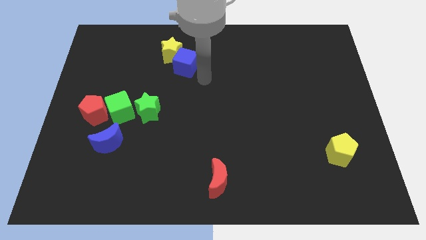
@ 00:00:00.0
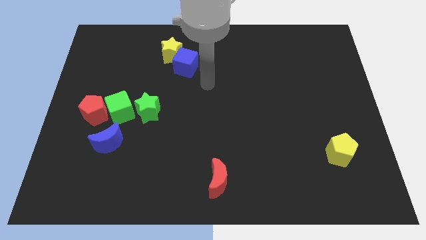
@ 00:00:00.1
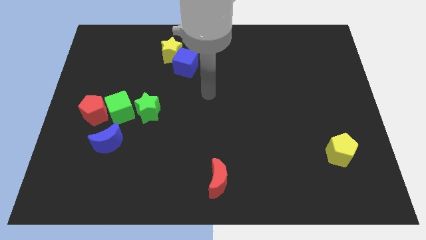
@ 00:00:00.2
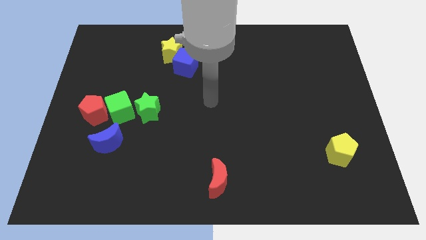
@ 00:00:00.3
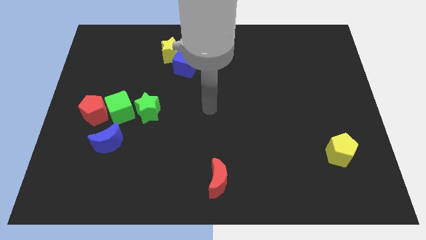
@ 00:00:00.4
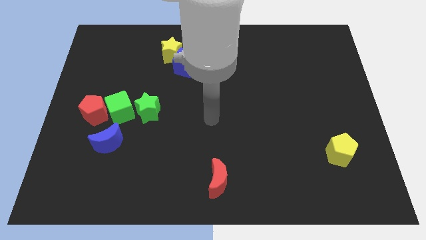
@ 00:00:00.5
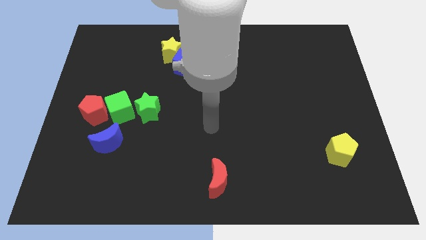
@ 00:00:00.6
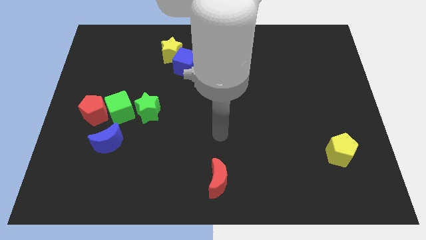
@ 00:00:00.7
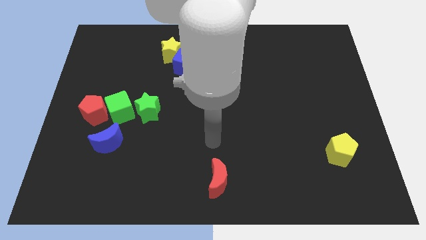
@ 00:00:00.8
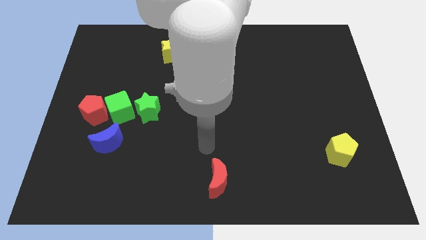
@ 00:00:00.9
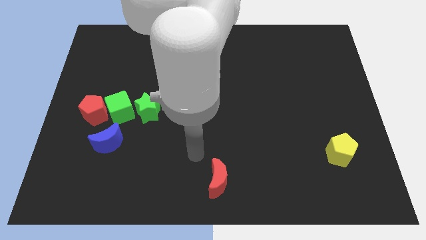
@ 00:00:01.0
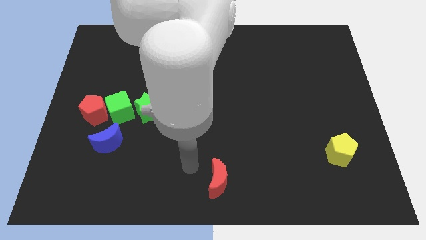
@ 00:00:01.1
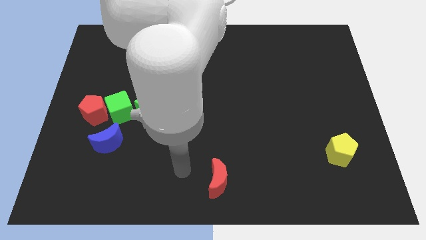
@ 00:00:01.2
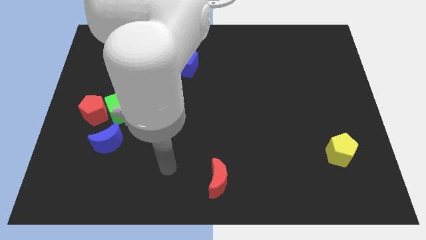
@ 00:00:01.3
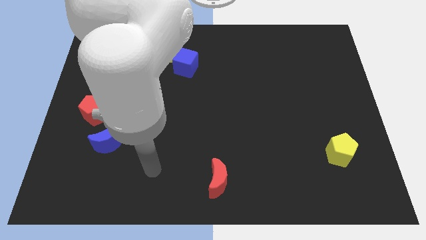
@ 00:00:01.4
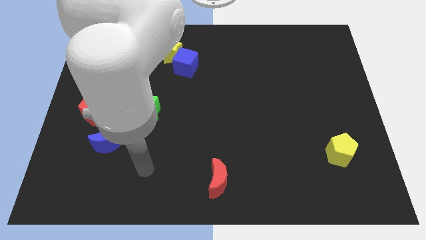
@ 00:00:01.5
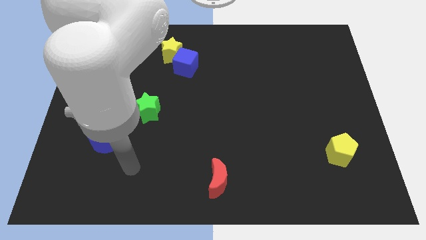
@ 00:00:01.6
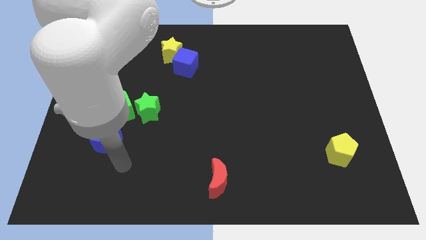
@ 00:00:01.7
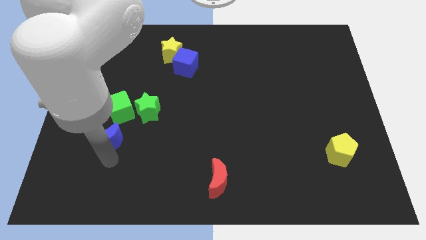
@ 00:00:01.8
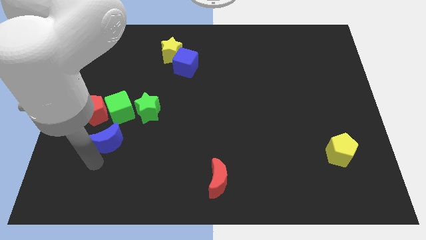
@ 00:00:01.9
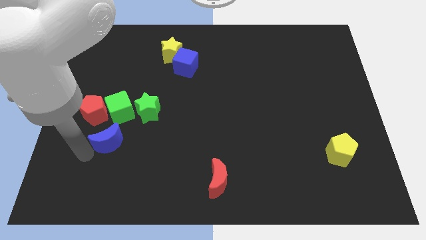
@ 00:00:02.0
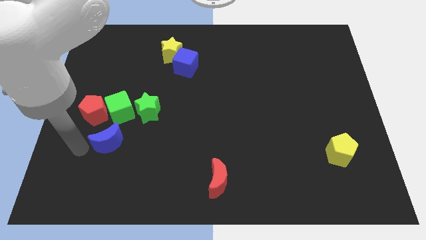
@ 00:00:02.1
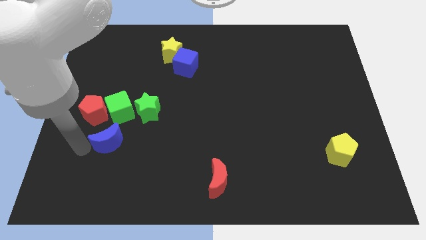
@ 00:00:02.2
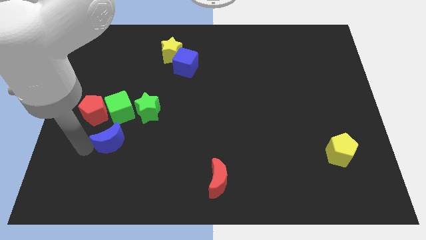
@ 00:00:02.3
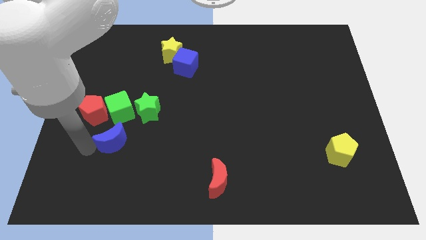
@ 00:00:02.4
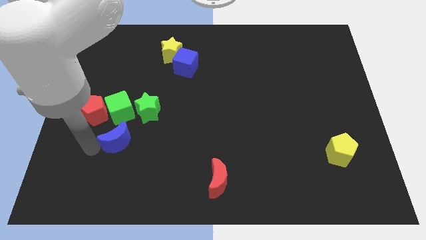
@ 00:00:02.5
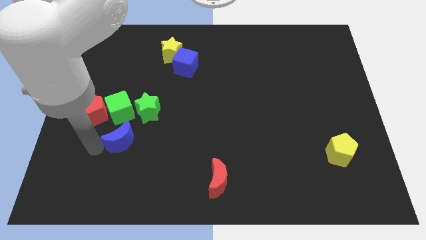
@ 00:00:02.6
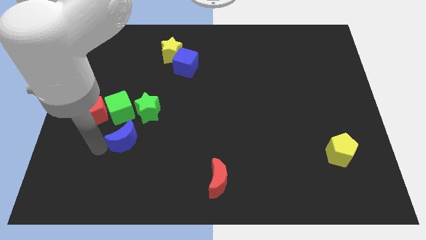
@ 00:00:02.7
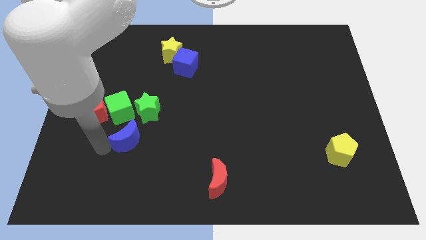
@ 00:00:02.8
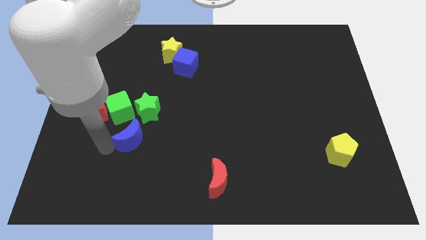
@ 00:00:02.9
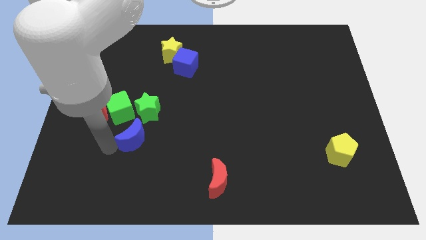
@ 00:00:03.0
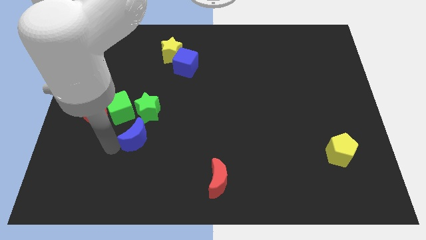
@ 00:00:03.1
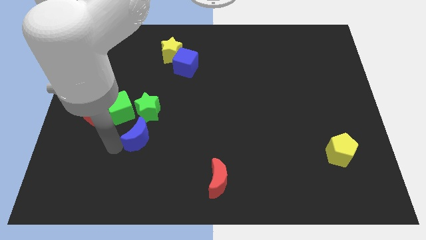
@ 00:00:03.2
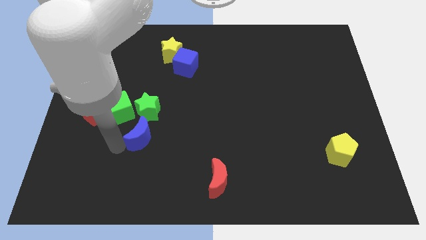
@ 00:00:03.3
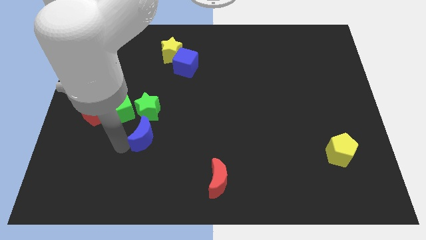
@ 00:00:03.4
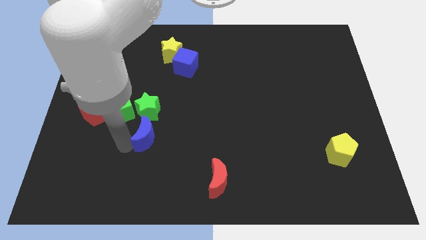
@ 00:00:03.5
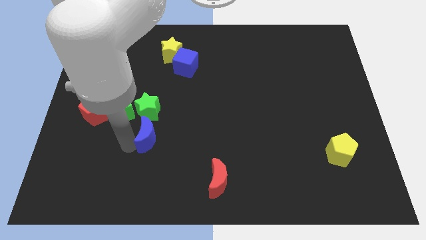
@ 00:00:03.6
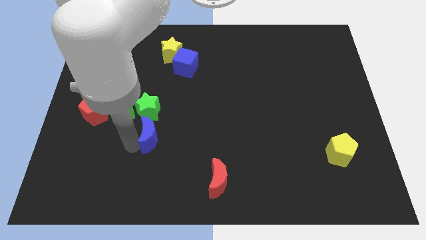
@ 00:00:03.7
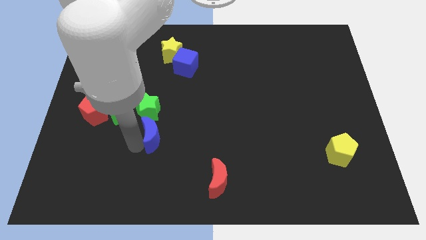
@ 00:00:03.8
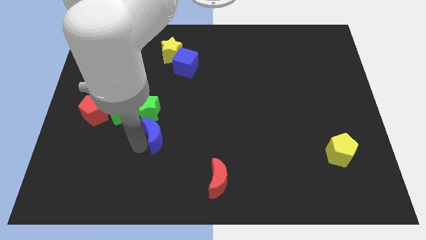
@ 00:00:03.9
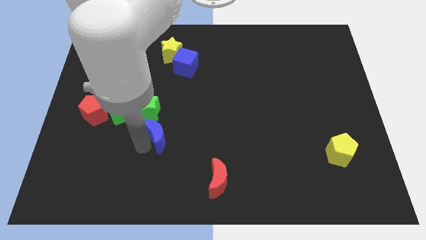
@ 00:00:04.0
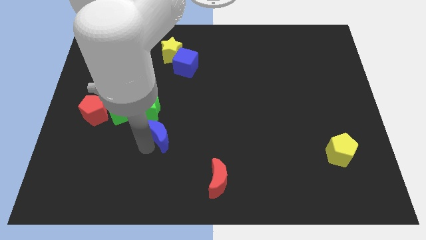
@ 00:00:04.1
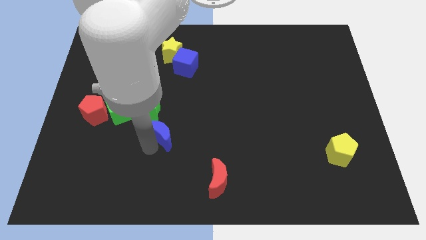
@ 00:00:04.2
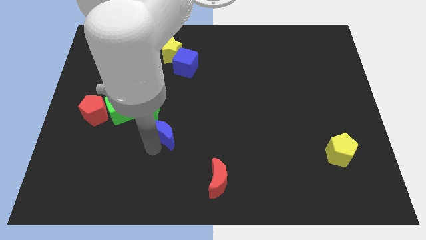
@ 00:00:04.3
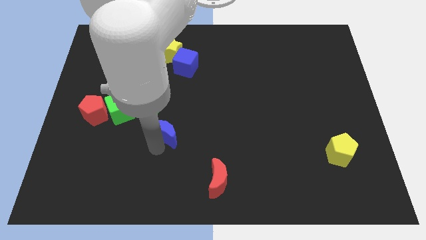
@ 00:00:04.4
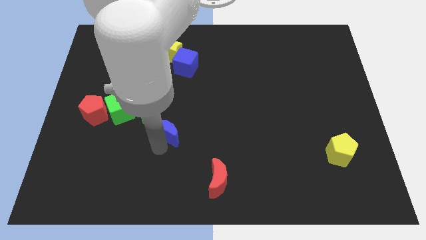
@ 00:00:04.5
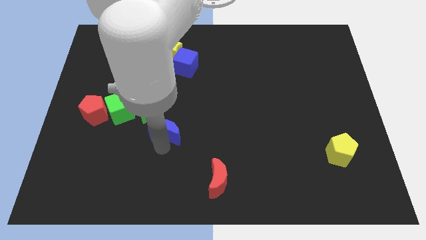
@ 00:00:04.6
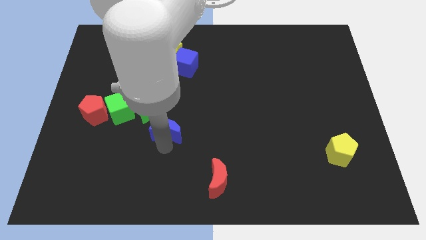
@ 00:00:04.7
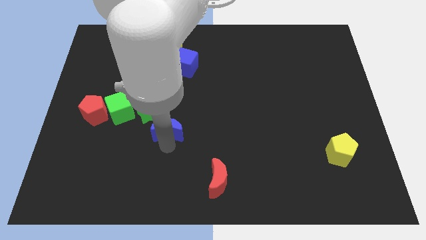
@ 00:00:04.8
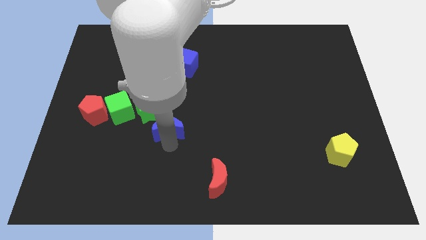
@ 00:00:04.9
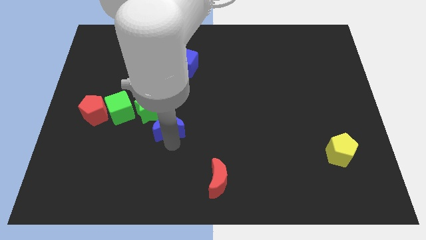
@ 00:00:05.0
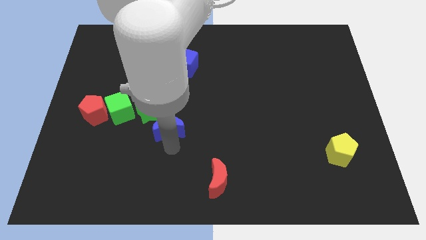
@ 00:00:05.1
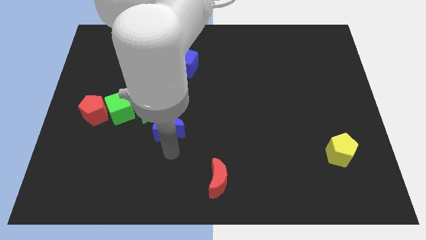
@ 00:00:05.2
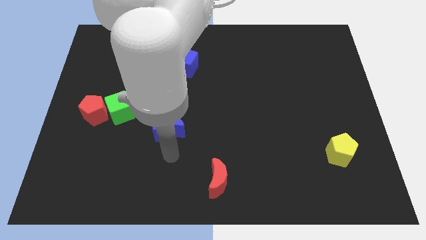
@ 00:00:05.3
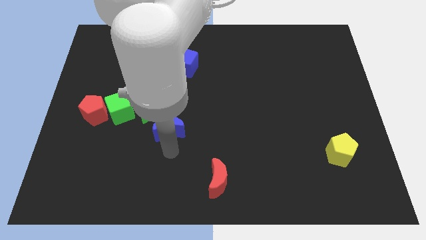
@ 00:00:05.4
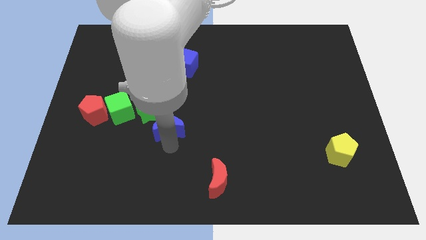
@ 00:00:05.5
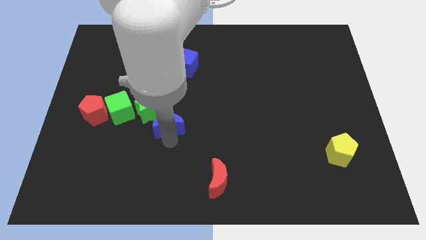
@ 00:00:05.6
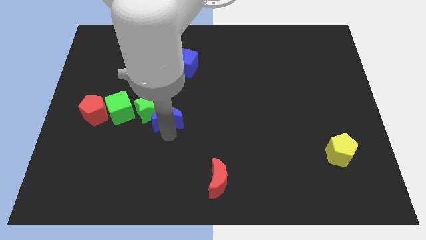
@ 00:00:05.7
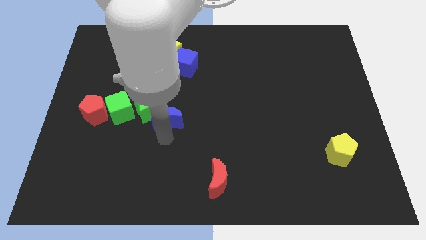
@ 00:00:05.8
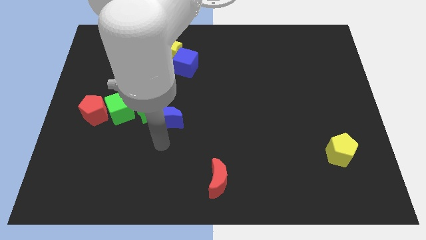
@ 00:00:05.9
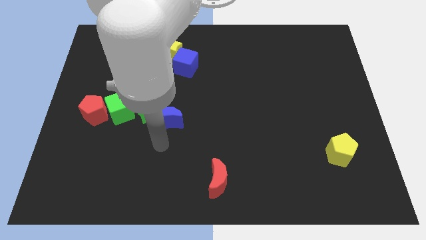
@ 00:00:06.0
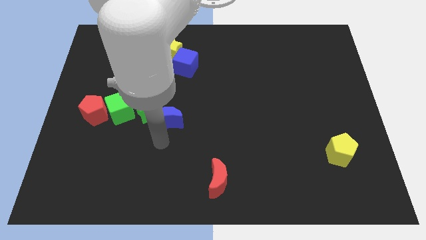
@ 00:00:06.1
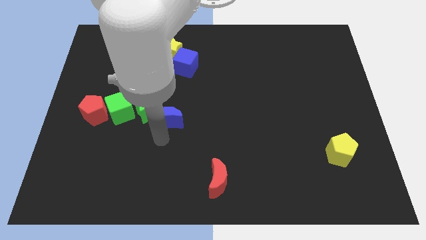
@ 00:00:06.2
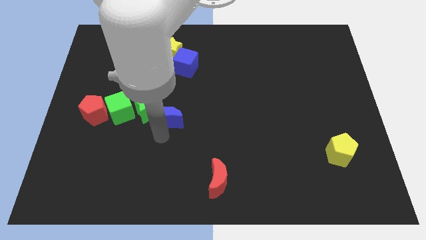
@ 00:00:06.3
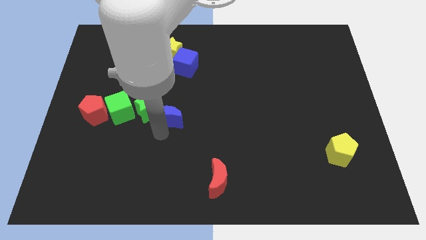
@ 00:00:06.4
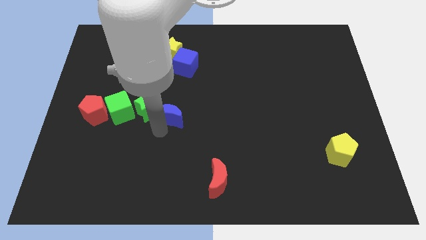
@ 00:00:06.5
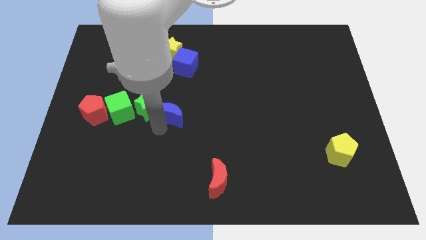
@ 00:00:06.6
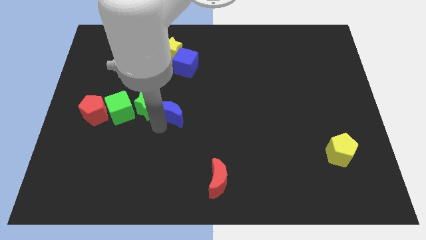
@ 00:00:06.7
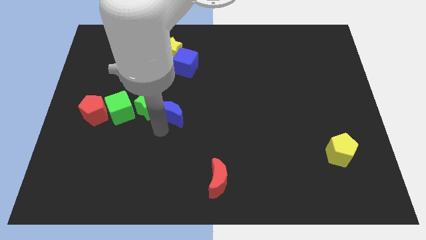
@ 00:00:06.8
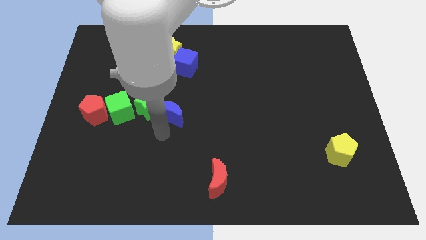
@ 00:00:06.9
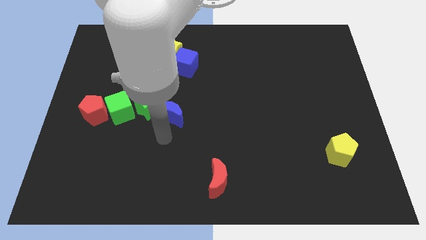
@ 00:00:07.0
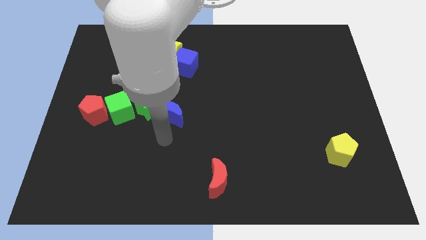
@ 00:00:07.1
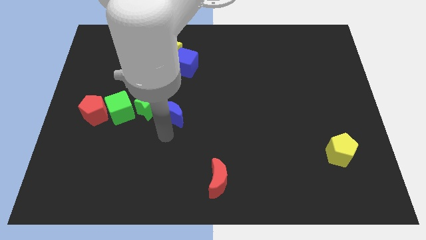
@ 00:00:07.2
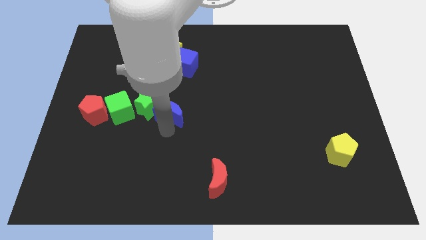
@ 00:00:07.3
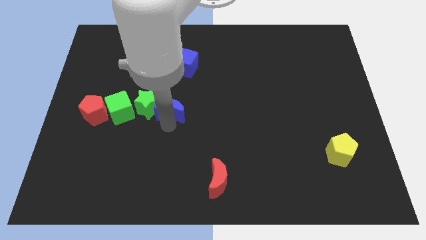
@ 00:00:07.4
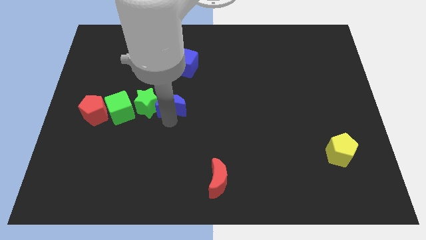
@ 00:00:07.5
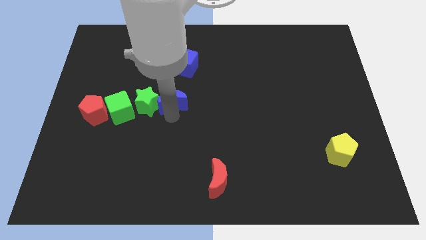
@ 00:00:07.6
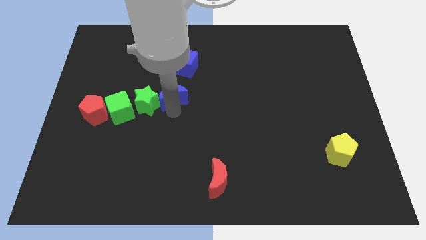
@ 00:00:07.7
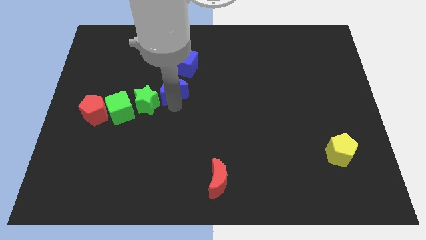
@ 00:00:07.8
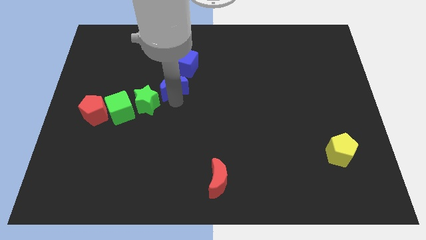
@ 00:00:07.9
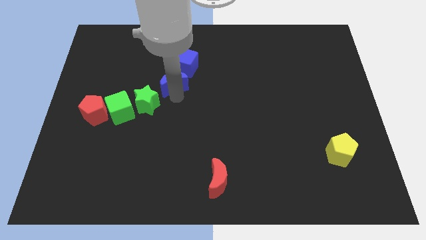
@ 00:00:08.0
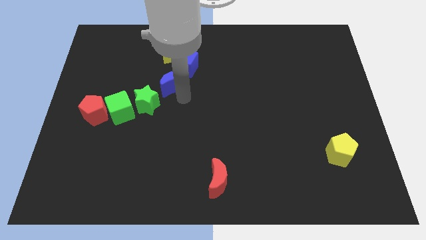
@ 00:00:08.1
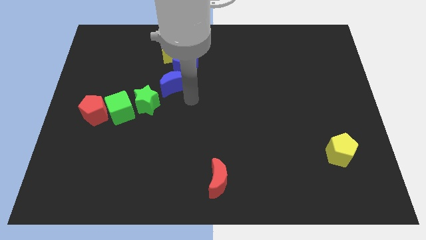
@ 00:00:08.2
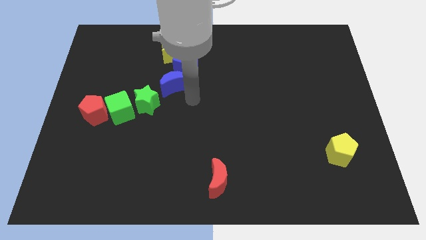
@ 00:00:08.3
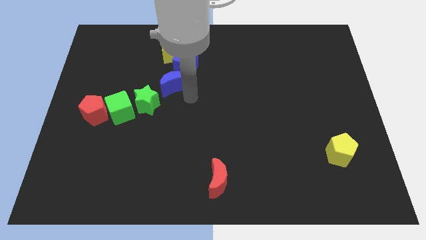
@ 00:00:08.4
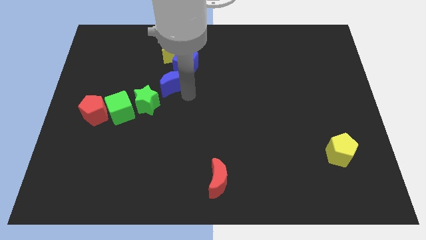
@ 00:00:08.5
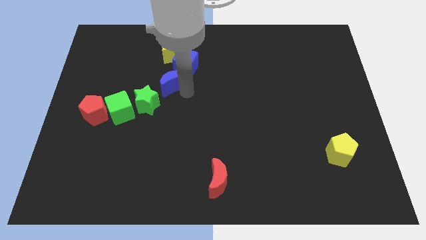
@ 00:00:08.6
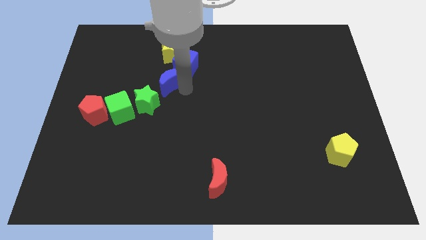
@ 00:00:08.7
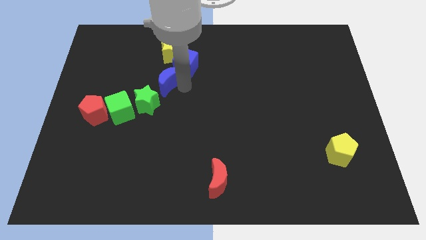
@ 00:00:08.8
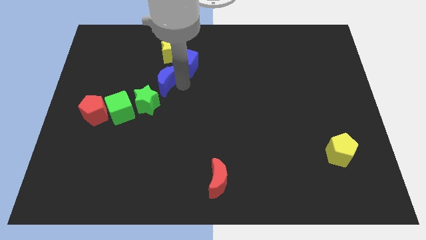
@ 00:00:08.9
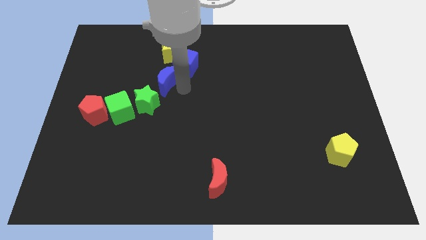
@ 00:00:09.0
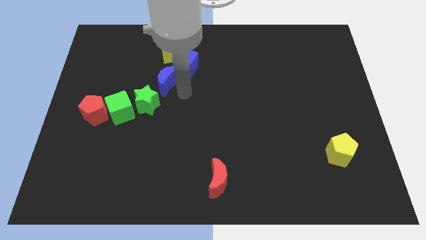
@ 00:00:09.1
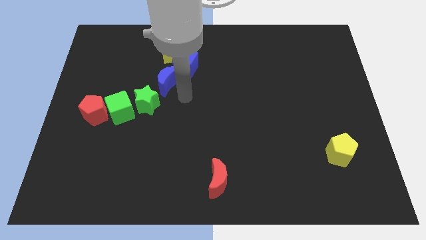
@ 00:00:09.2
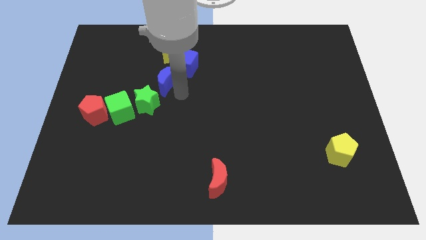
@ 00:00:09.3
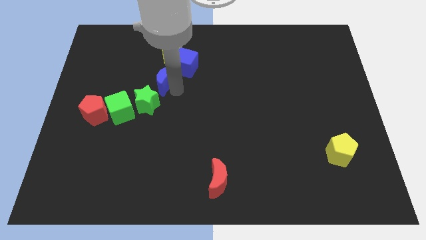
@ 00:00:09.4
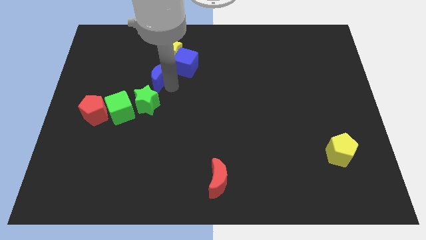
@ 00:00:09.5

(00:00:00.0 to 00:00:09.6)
put the blue moon to the bottom left of the yellow star
